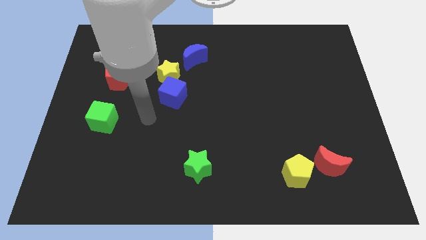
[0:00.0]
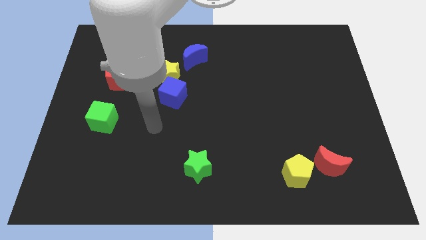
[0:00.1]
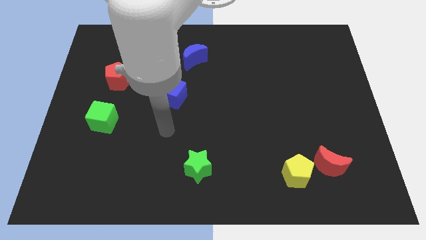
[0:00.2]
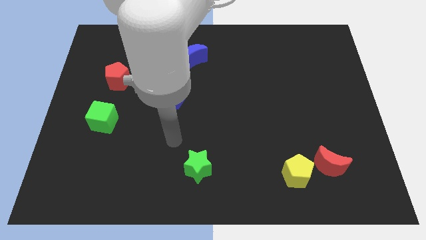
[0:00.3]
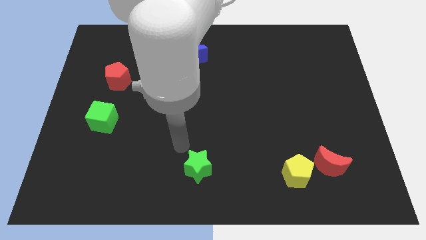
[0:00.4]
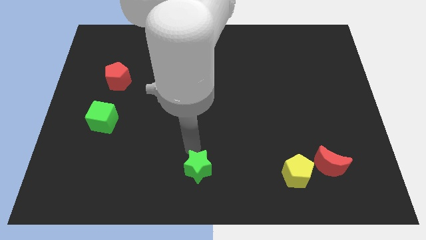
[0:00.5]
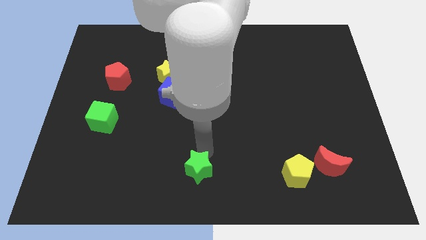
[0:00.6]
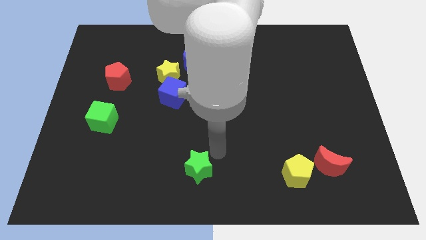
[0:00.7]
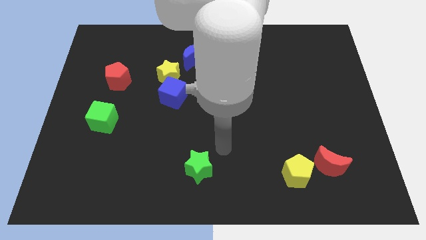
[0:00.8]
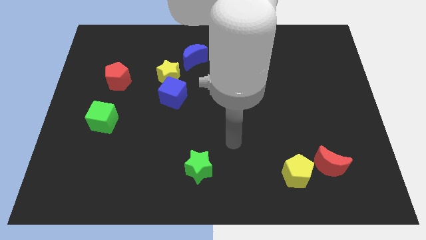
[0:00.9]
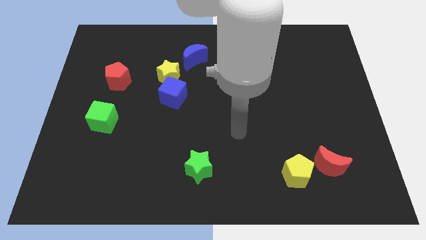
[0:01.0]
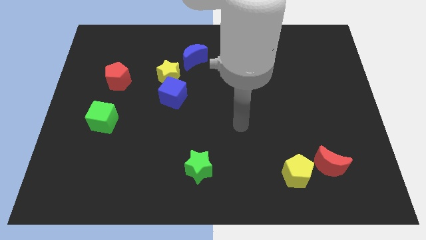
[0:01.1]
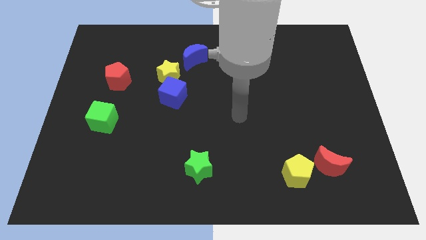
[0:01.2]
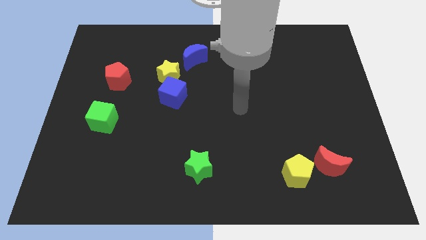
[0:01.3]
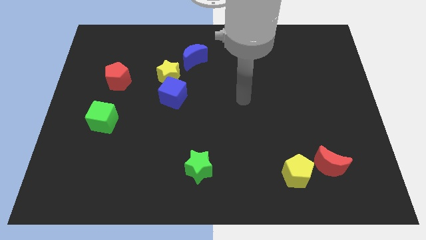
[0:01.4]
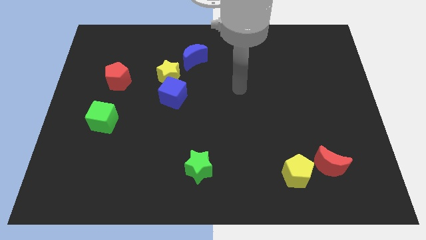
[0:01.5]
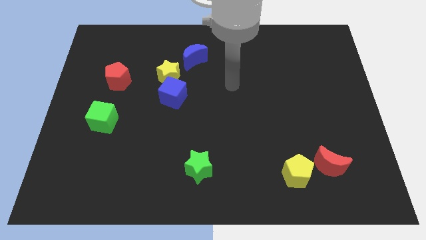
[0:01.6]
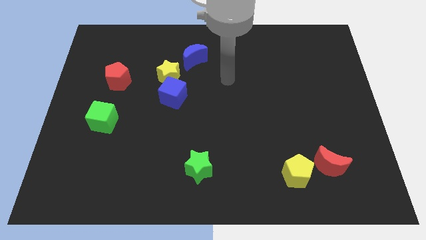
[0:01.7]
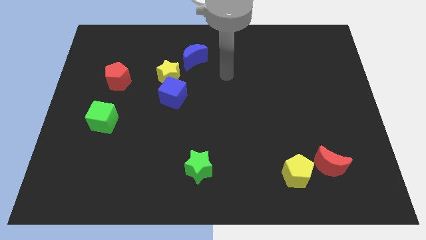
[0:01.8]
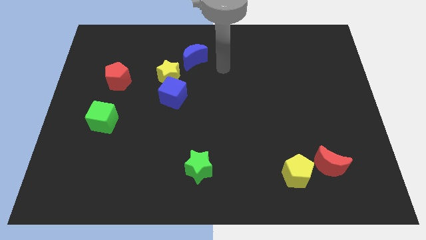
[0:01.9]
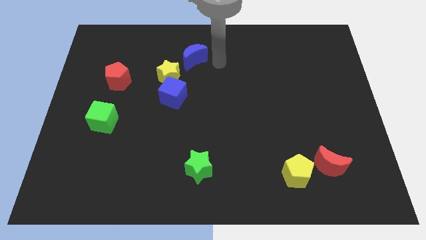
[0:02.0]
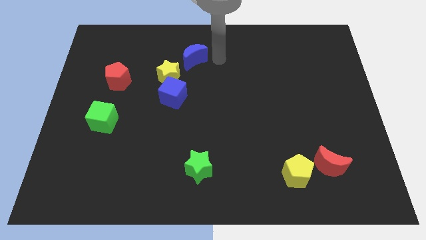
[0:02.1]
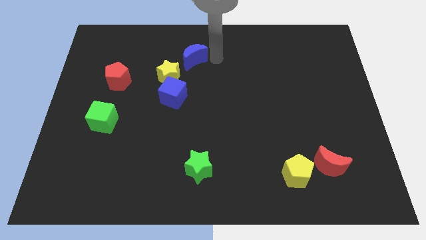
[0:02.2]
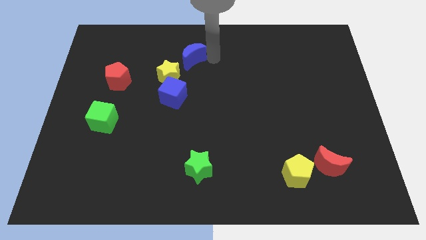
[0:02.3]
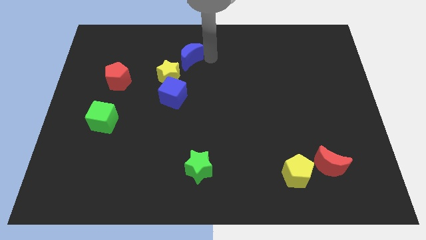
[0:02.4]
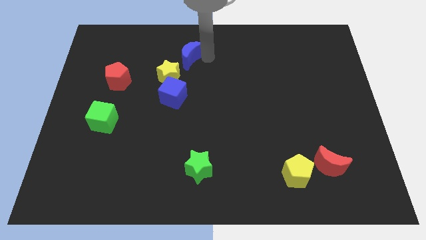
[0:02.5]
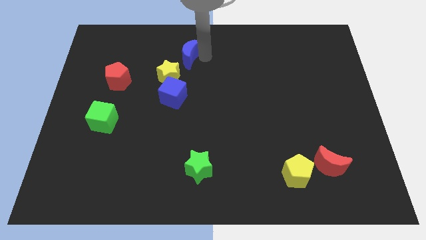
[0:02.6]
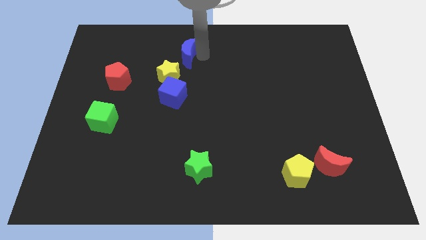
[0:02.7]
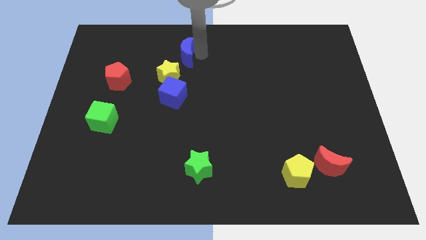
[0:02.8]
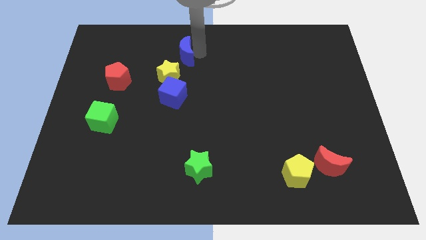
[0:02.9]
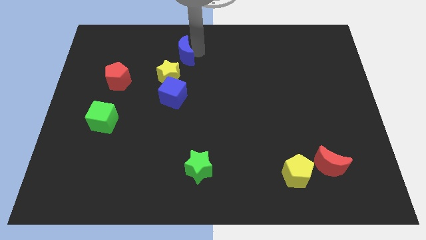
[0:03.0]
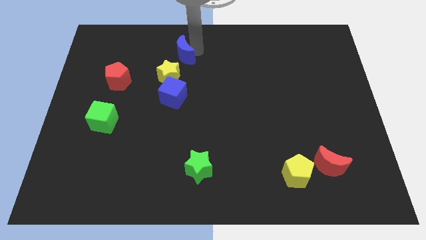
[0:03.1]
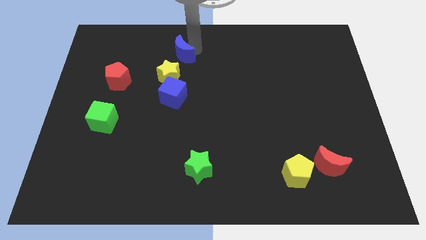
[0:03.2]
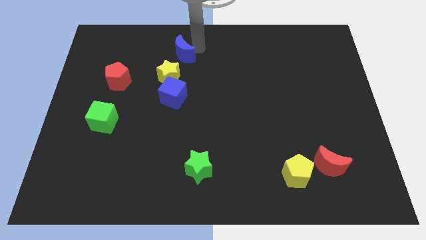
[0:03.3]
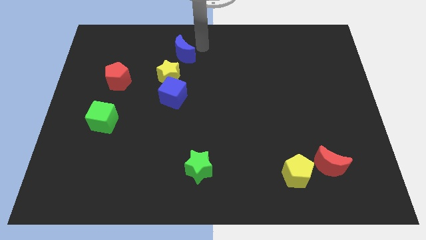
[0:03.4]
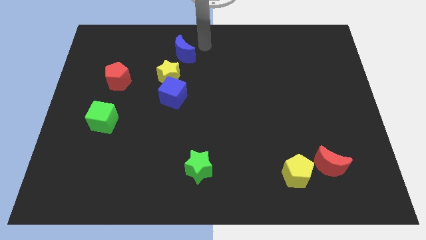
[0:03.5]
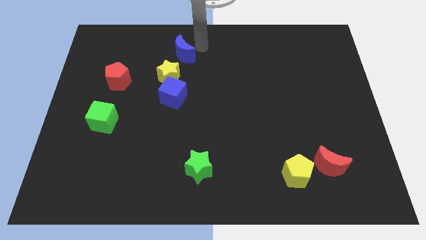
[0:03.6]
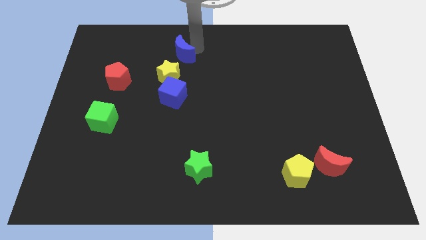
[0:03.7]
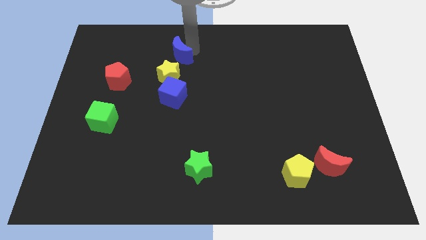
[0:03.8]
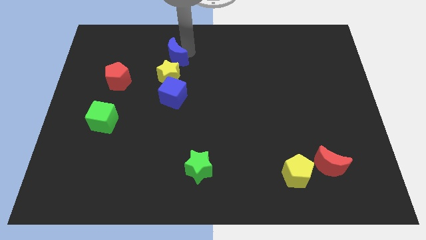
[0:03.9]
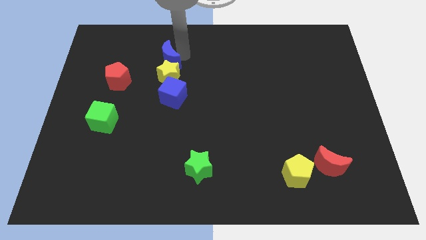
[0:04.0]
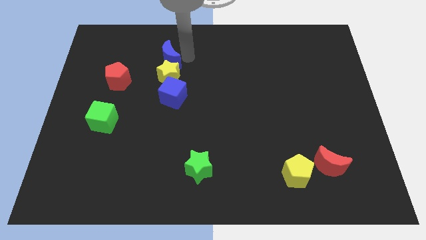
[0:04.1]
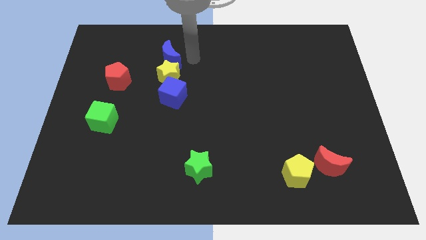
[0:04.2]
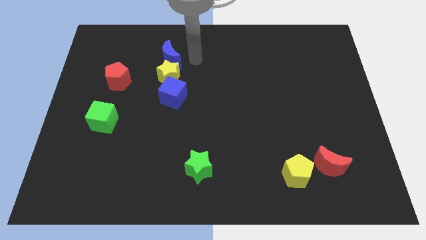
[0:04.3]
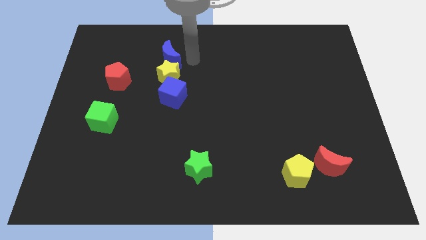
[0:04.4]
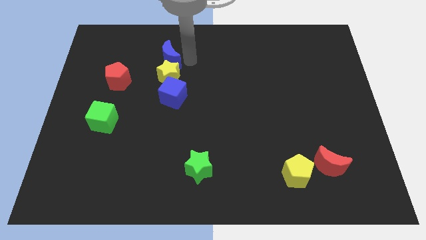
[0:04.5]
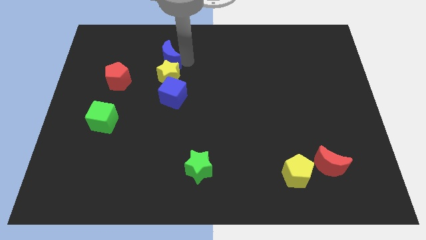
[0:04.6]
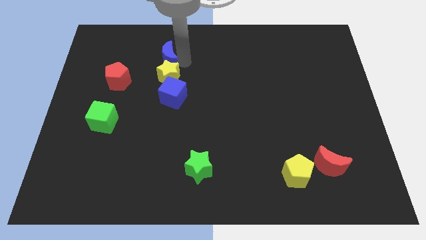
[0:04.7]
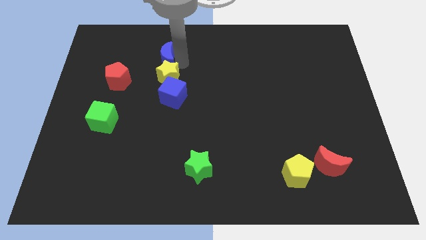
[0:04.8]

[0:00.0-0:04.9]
move the blue moon left somewhat

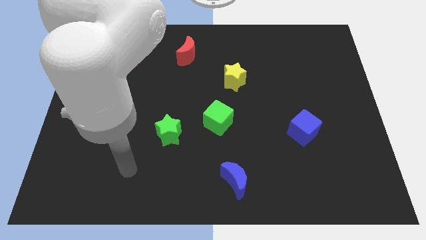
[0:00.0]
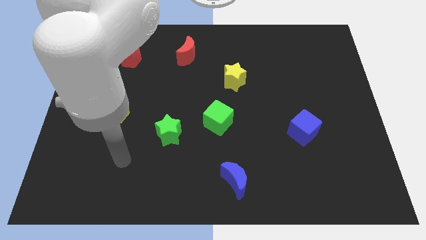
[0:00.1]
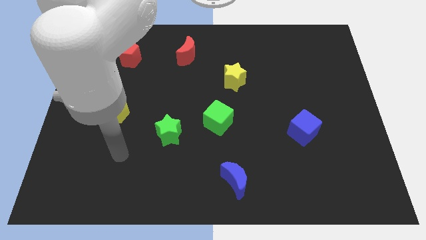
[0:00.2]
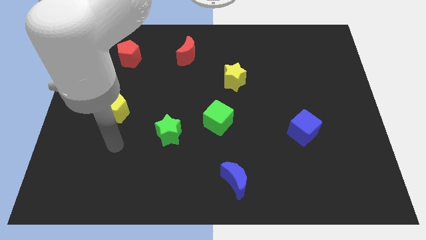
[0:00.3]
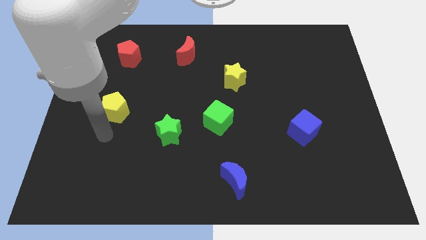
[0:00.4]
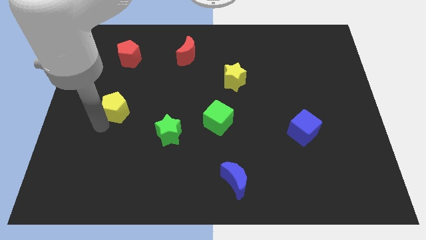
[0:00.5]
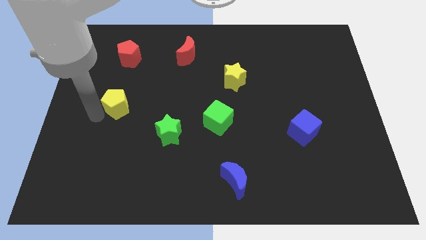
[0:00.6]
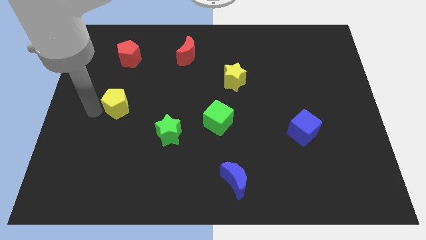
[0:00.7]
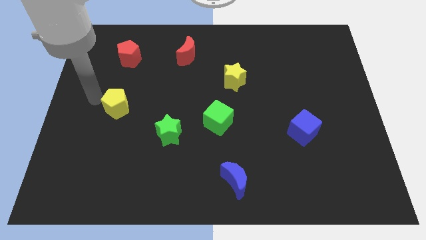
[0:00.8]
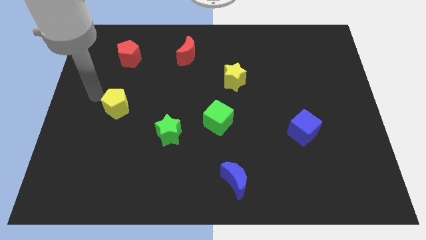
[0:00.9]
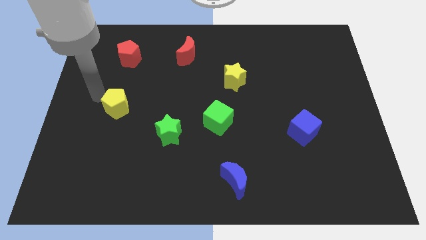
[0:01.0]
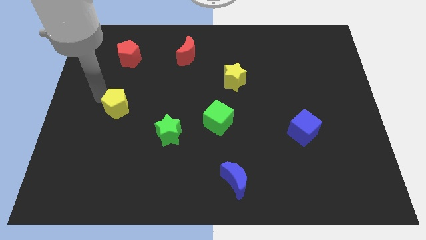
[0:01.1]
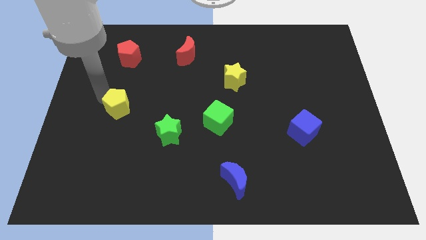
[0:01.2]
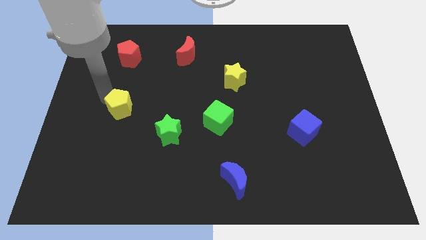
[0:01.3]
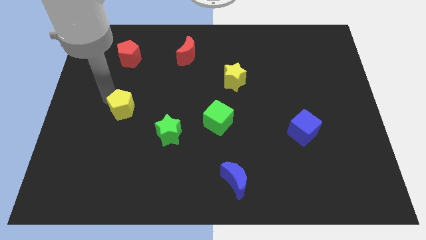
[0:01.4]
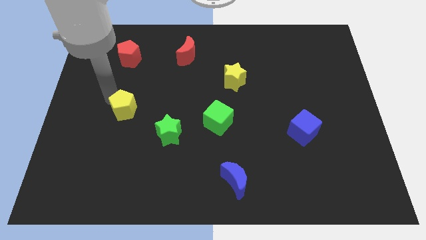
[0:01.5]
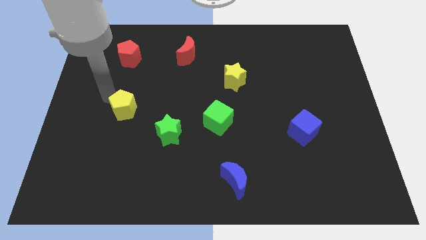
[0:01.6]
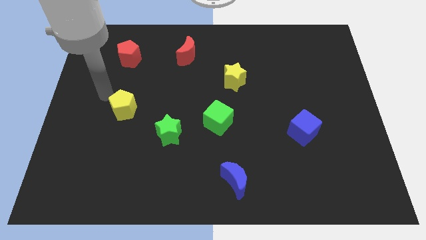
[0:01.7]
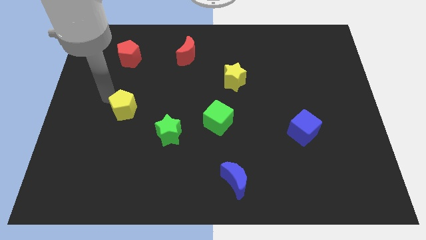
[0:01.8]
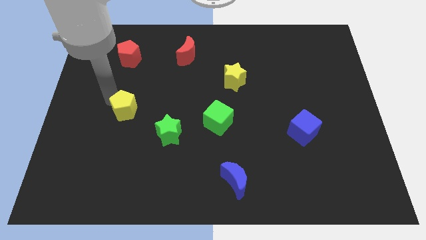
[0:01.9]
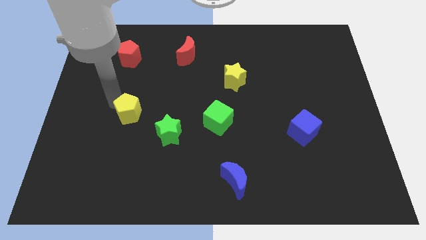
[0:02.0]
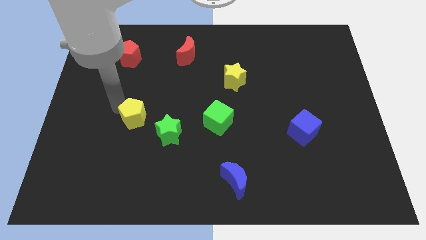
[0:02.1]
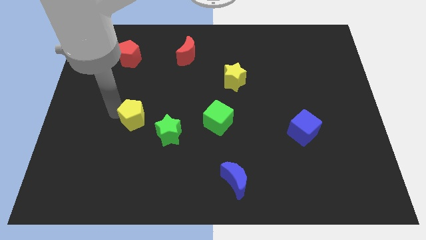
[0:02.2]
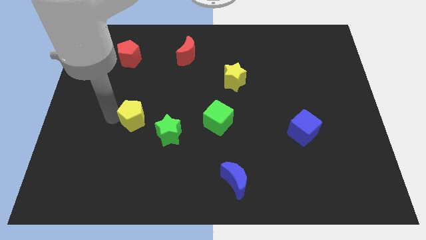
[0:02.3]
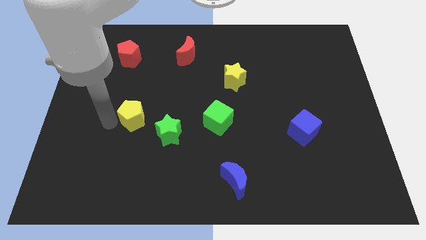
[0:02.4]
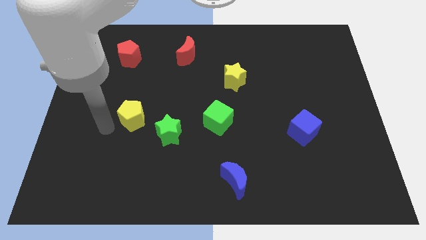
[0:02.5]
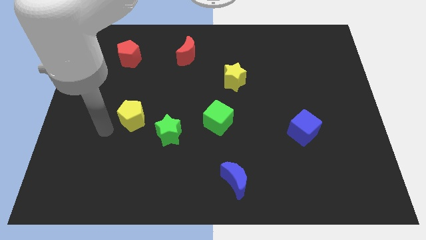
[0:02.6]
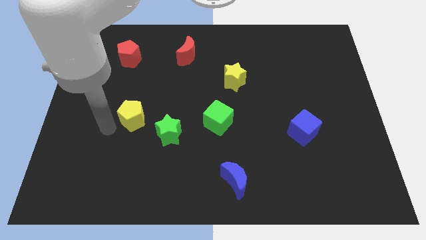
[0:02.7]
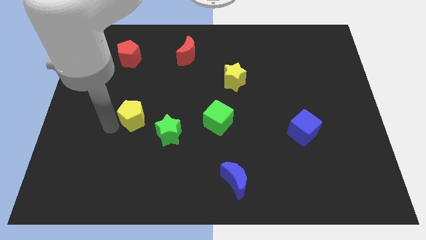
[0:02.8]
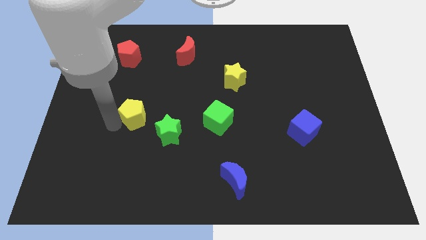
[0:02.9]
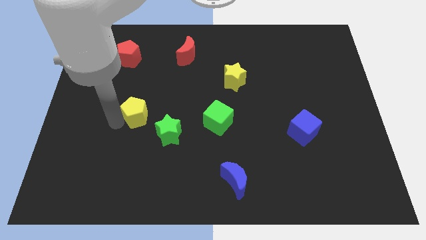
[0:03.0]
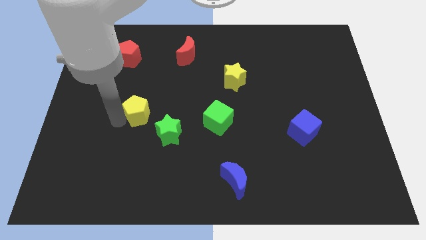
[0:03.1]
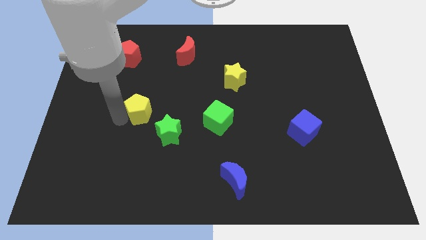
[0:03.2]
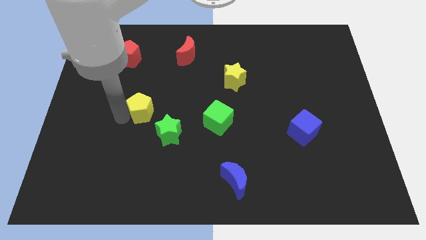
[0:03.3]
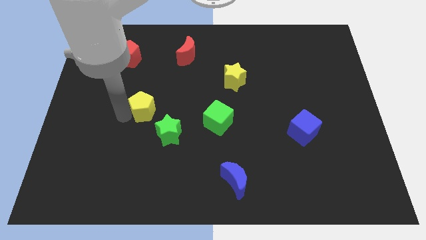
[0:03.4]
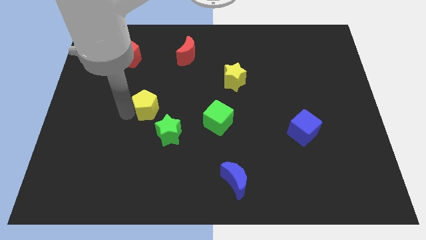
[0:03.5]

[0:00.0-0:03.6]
push the yellow pentagon slightly to the right
